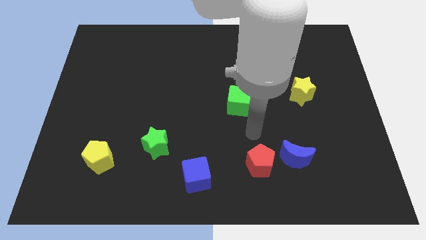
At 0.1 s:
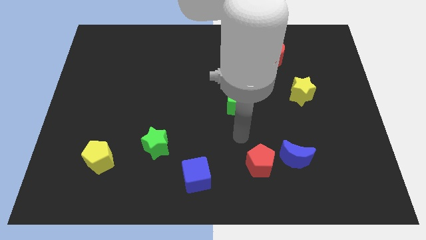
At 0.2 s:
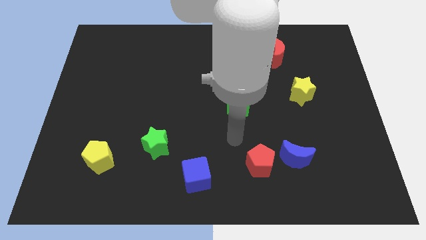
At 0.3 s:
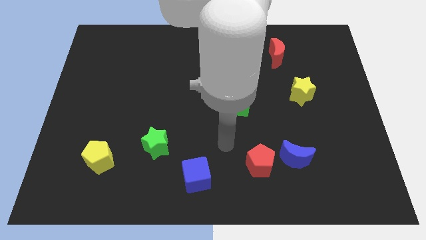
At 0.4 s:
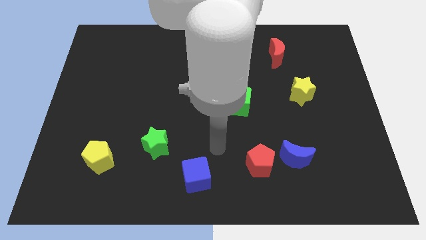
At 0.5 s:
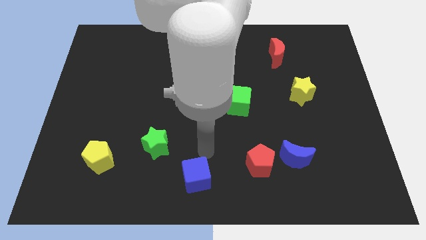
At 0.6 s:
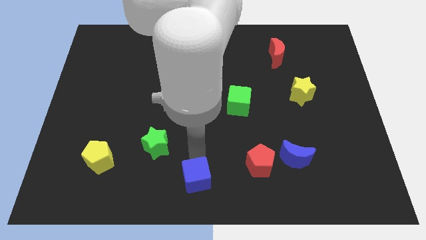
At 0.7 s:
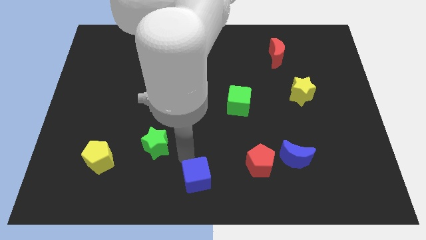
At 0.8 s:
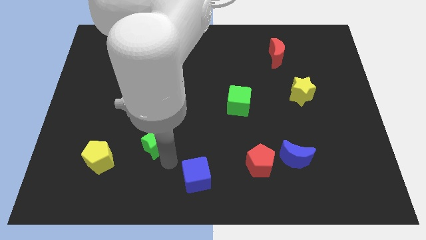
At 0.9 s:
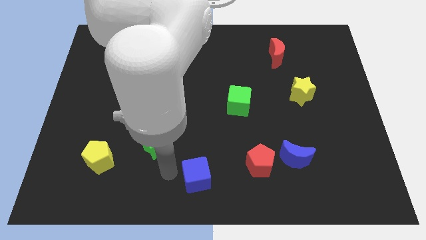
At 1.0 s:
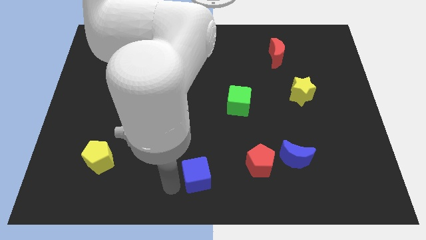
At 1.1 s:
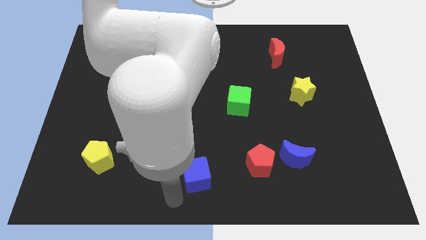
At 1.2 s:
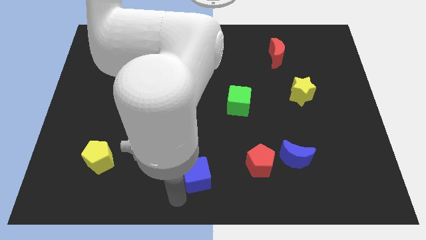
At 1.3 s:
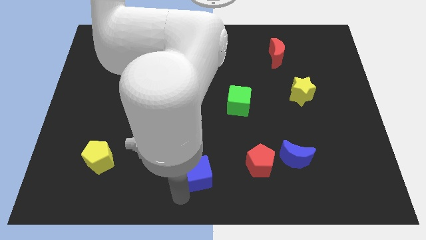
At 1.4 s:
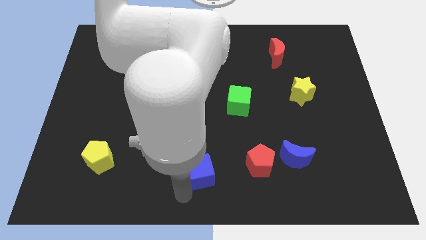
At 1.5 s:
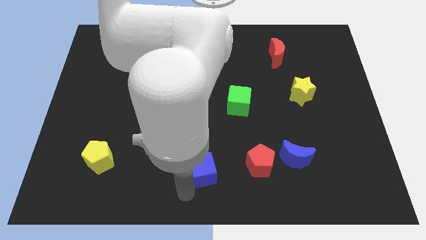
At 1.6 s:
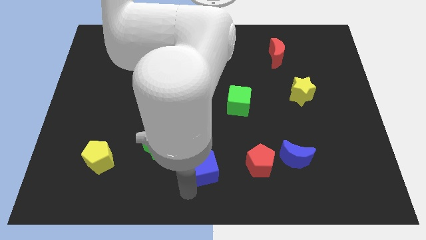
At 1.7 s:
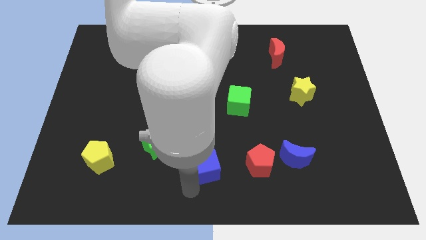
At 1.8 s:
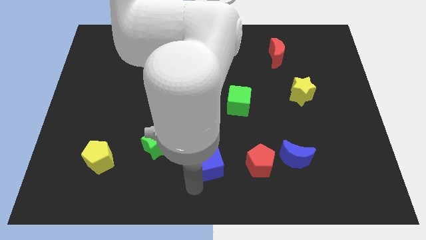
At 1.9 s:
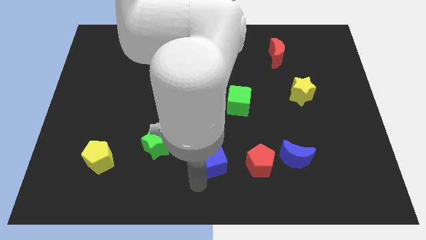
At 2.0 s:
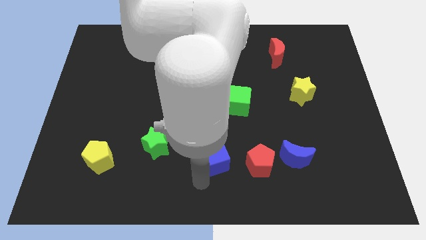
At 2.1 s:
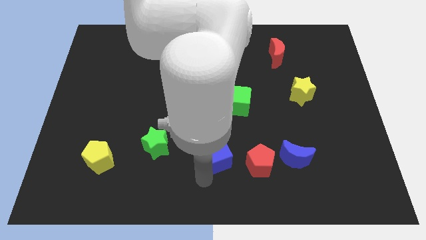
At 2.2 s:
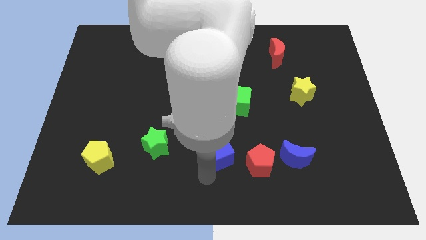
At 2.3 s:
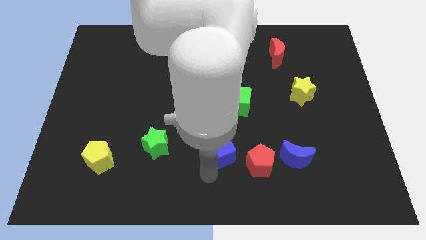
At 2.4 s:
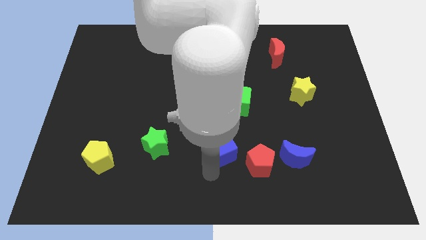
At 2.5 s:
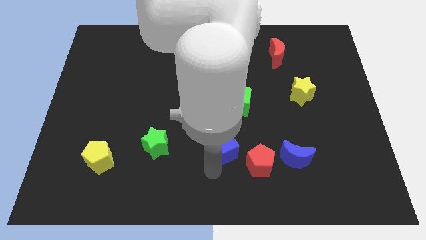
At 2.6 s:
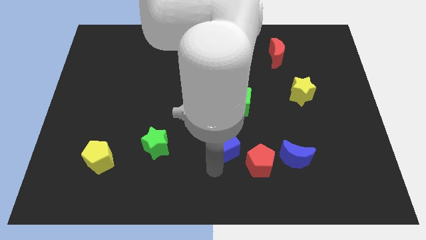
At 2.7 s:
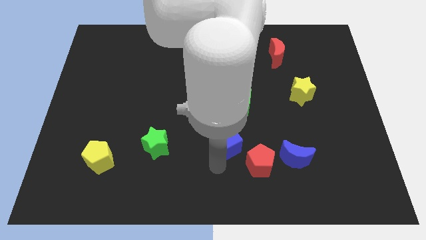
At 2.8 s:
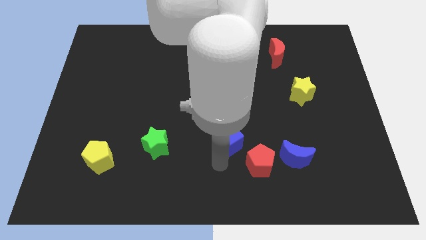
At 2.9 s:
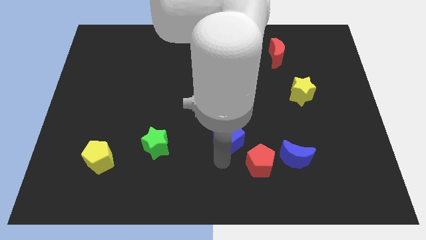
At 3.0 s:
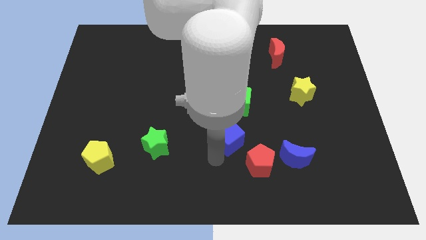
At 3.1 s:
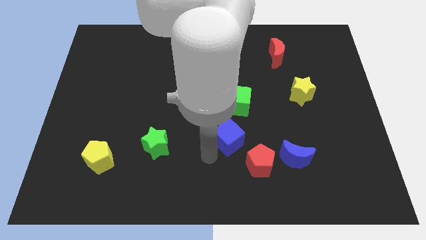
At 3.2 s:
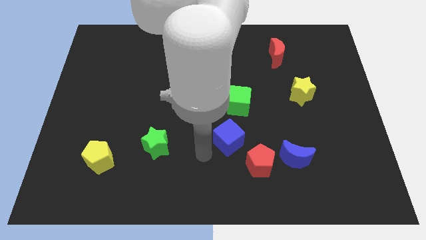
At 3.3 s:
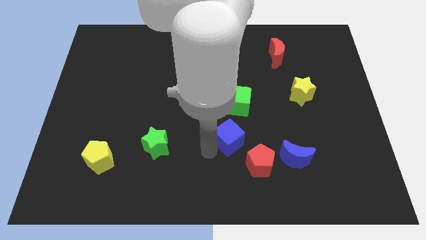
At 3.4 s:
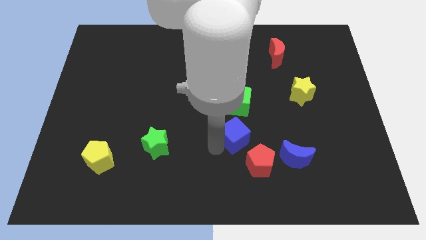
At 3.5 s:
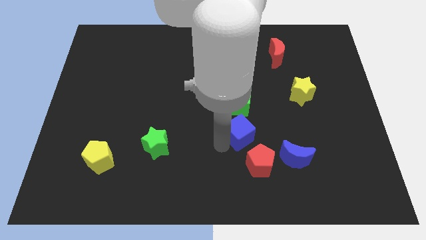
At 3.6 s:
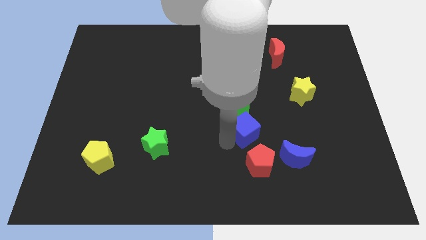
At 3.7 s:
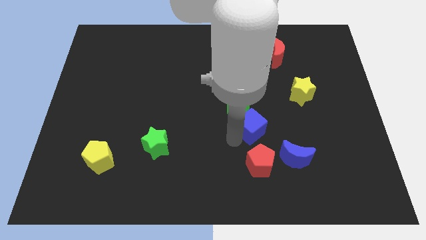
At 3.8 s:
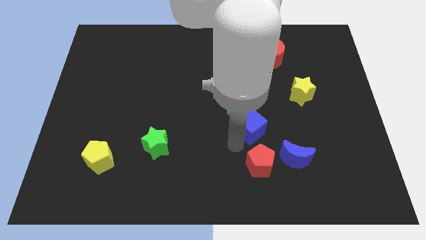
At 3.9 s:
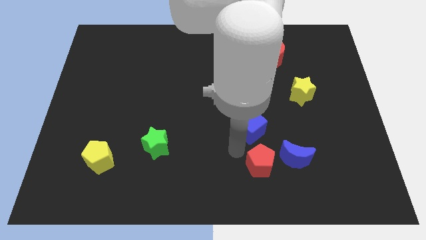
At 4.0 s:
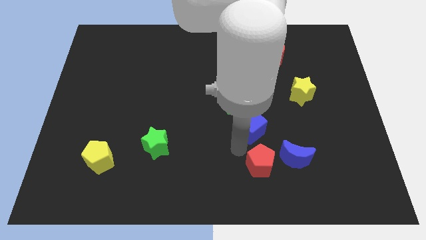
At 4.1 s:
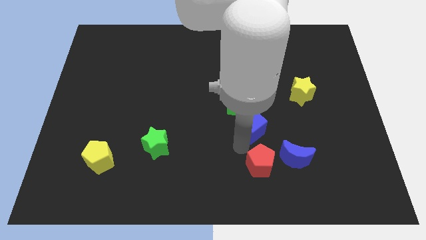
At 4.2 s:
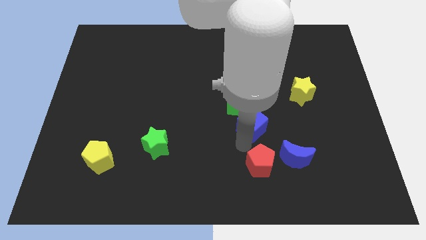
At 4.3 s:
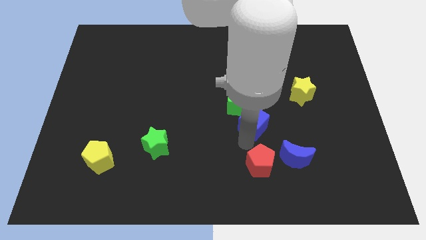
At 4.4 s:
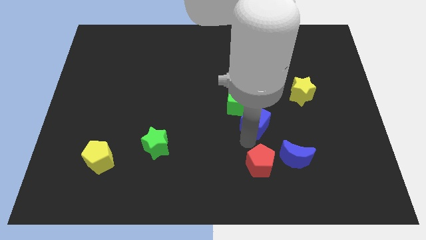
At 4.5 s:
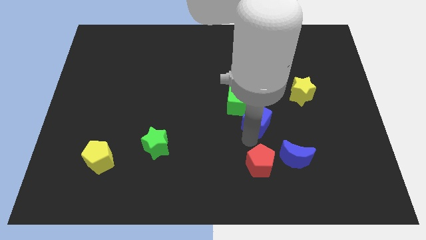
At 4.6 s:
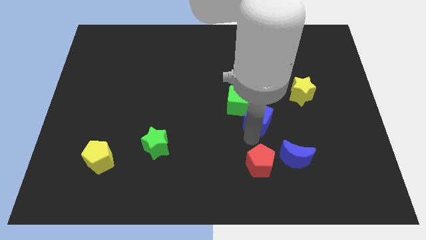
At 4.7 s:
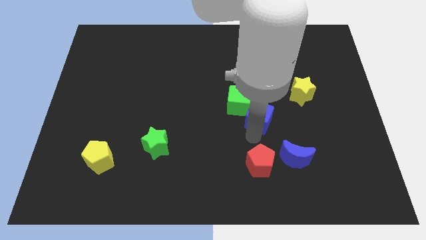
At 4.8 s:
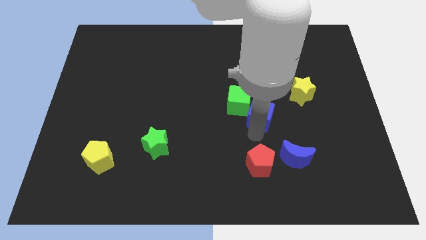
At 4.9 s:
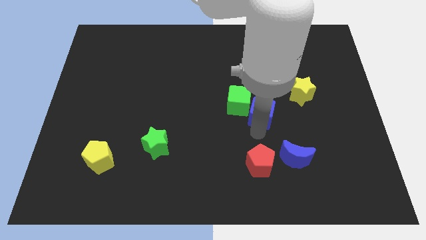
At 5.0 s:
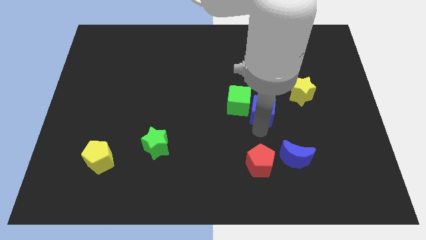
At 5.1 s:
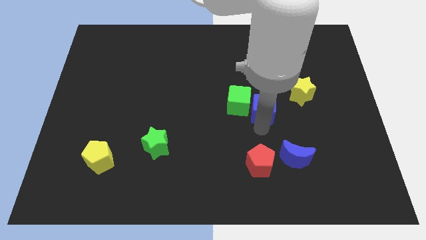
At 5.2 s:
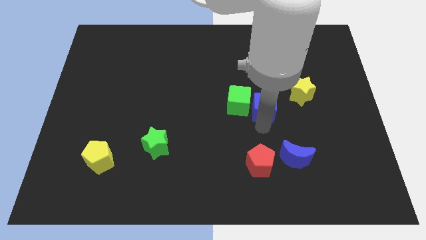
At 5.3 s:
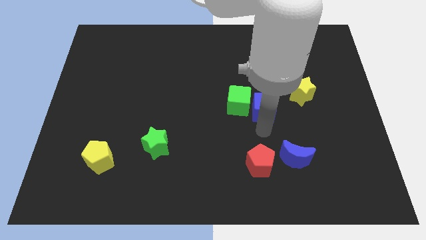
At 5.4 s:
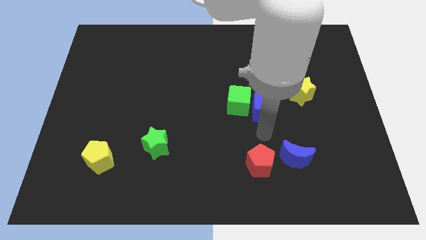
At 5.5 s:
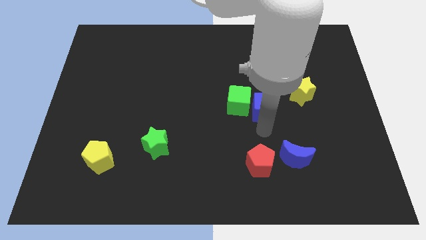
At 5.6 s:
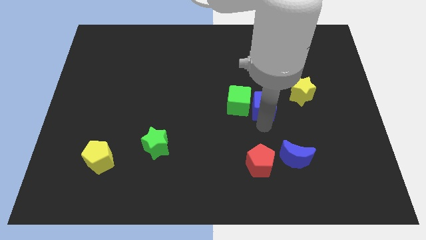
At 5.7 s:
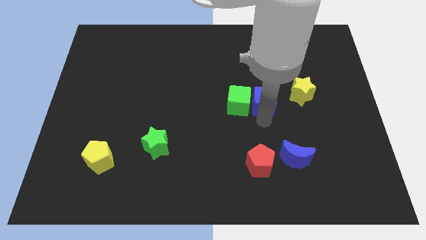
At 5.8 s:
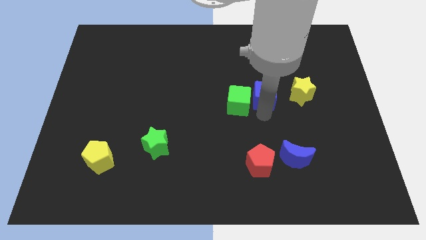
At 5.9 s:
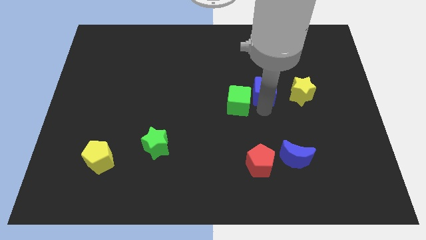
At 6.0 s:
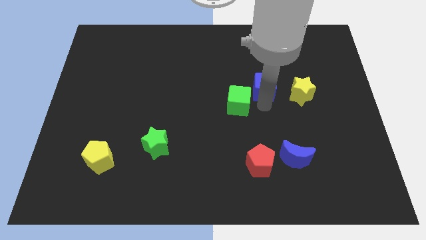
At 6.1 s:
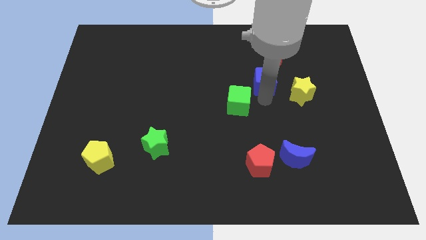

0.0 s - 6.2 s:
slide the blue cube diagonally down and to the left of the red moon

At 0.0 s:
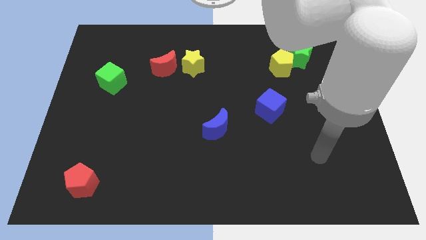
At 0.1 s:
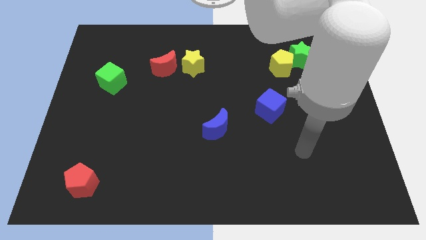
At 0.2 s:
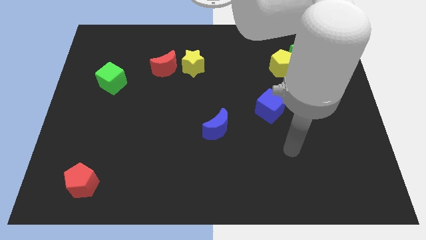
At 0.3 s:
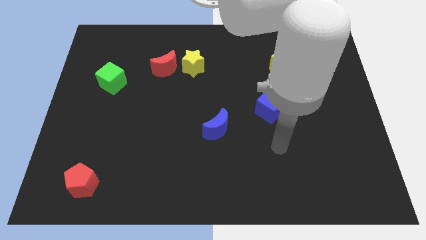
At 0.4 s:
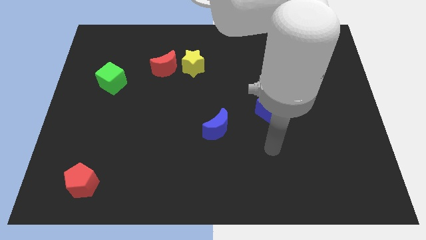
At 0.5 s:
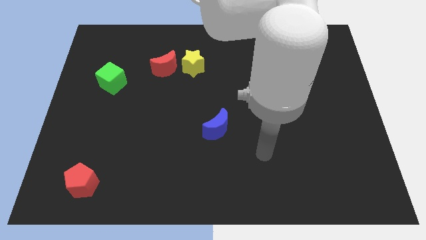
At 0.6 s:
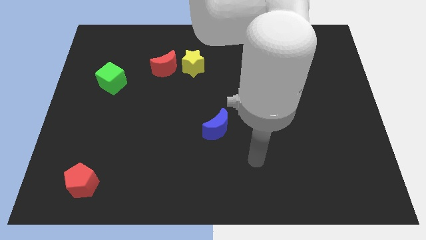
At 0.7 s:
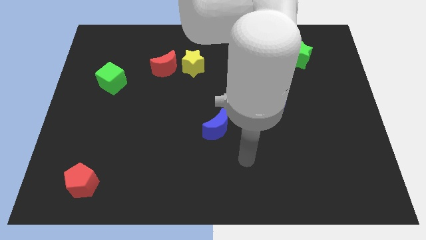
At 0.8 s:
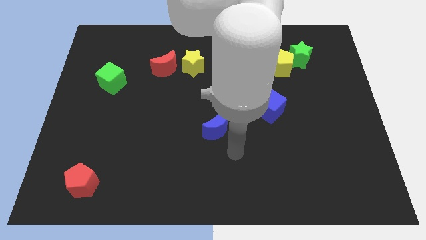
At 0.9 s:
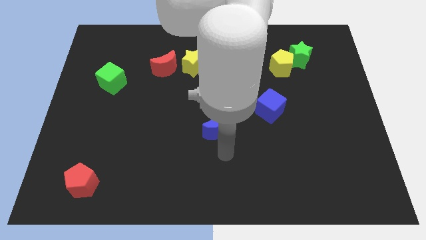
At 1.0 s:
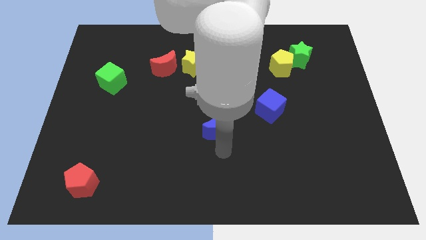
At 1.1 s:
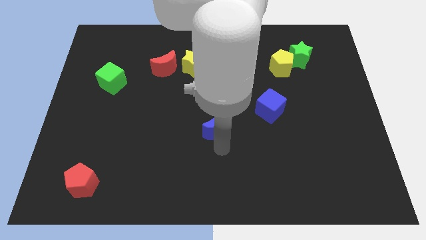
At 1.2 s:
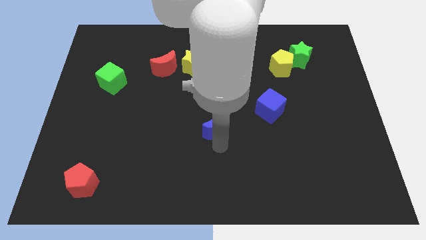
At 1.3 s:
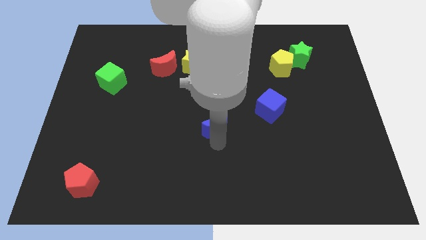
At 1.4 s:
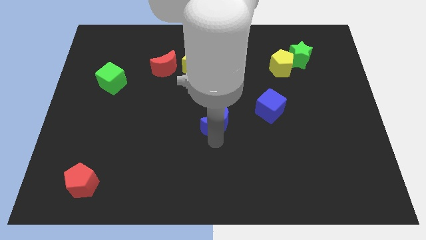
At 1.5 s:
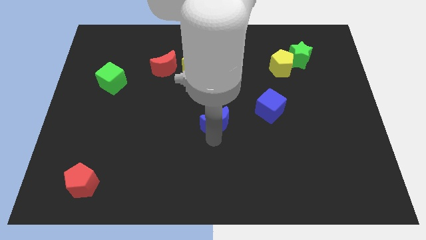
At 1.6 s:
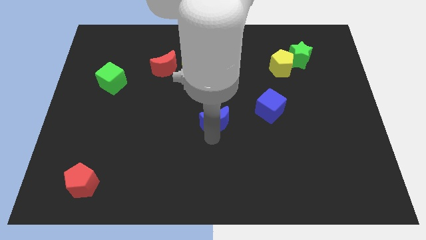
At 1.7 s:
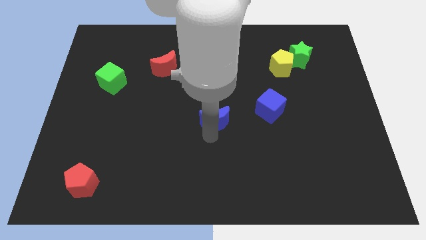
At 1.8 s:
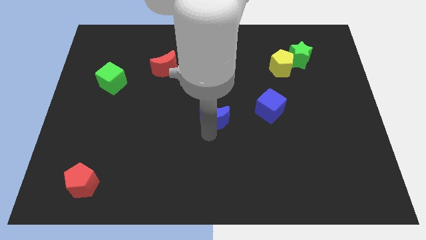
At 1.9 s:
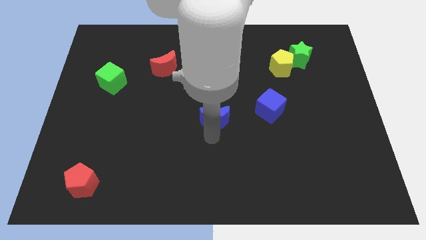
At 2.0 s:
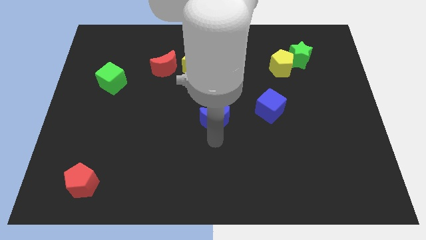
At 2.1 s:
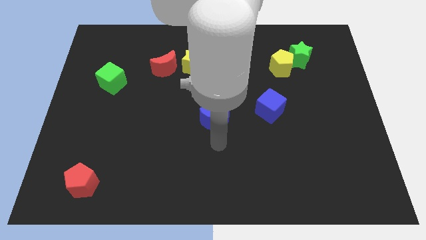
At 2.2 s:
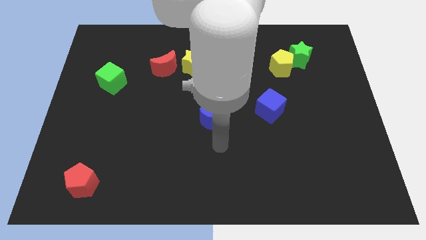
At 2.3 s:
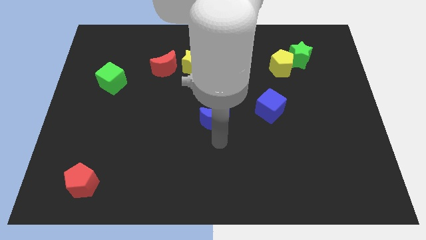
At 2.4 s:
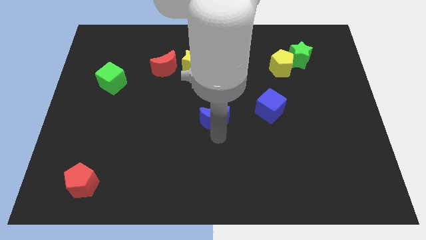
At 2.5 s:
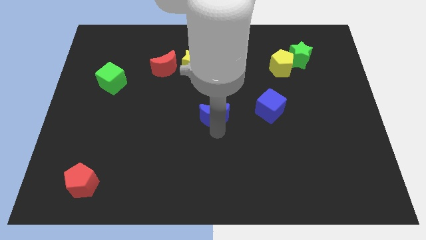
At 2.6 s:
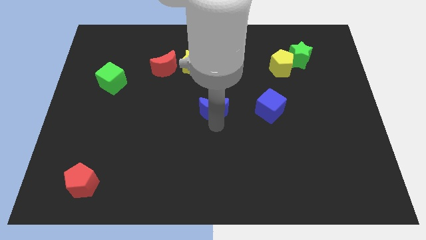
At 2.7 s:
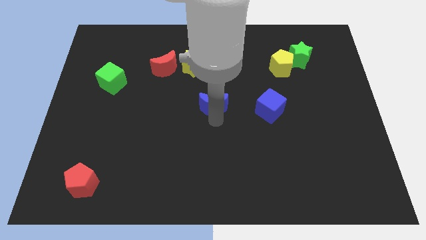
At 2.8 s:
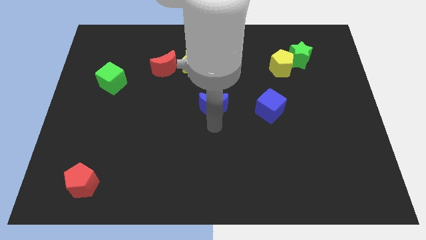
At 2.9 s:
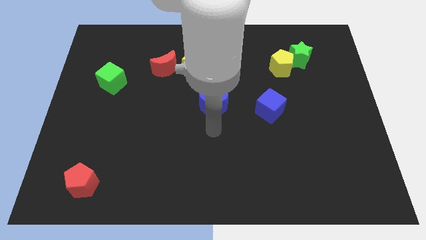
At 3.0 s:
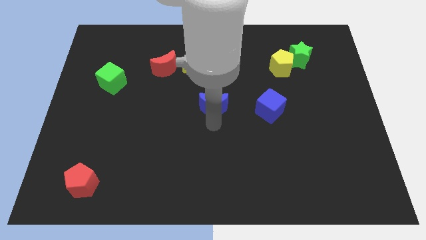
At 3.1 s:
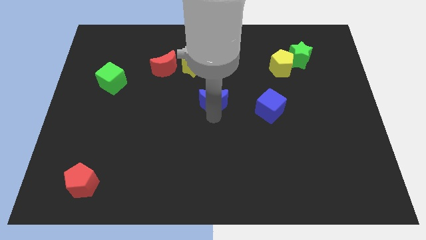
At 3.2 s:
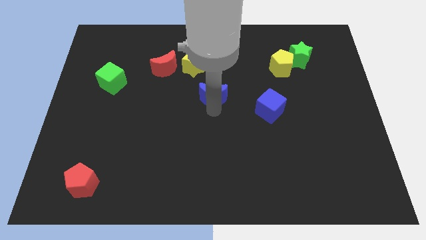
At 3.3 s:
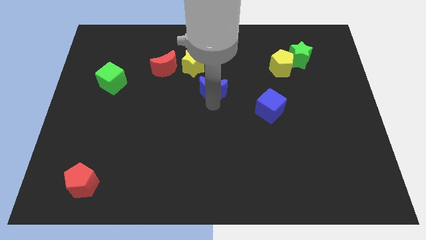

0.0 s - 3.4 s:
put the blue moon diagonally down and to the right of the yellow star
